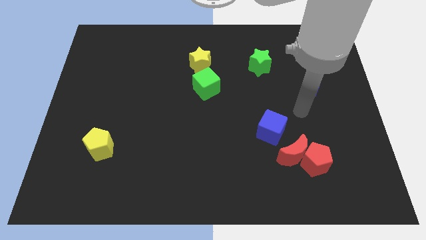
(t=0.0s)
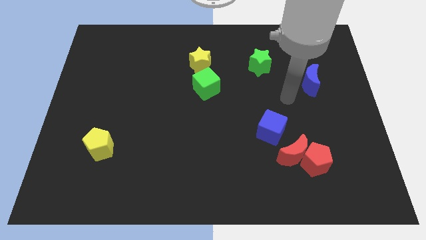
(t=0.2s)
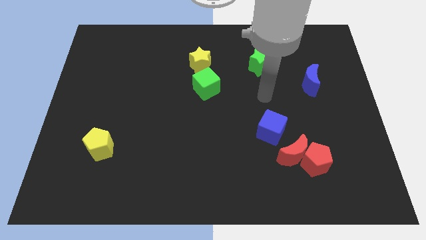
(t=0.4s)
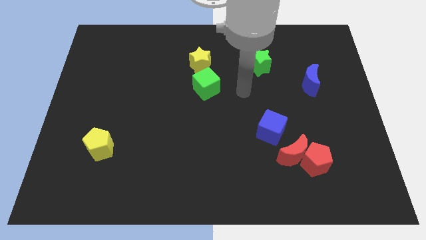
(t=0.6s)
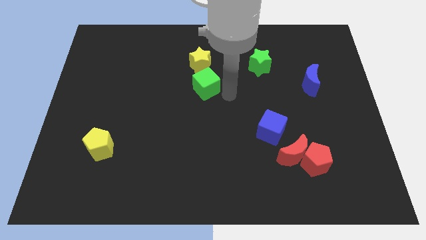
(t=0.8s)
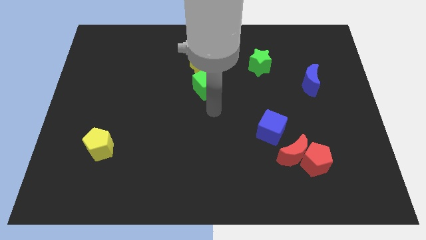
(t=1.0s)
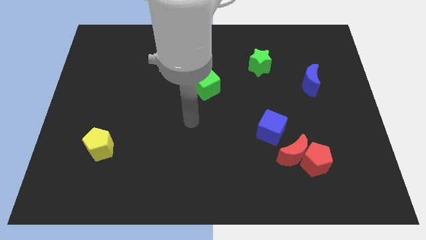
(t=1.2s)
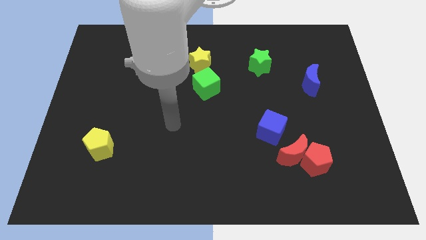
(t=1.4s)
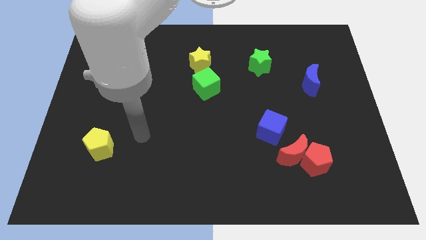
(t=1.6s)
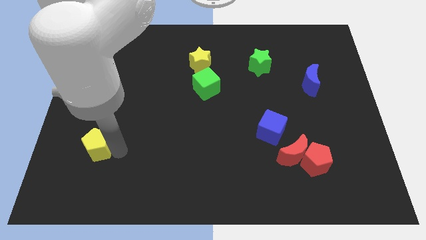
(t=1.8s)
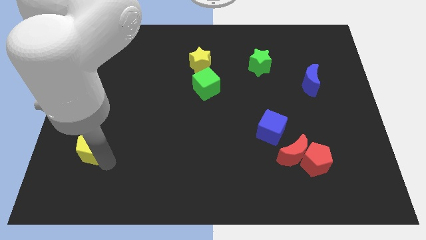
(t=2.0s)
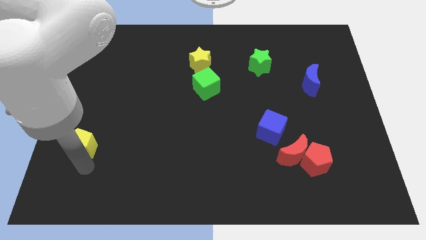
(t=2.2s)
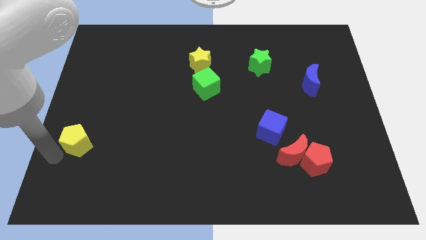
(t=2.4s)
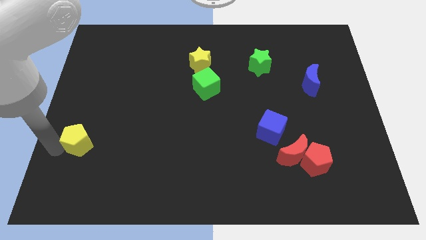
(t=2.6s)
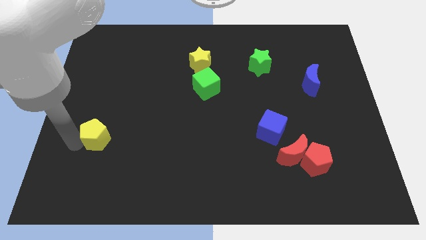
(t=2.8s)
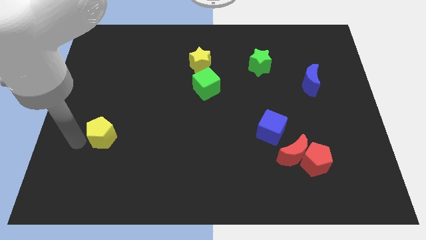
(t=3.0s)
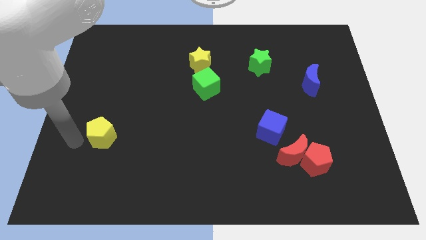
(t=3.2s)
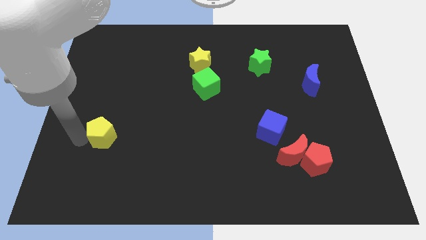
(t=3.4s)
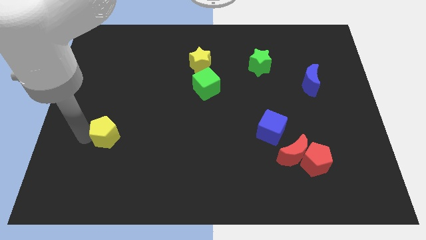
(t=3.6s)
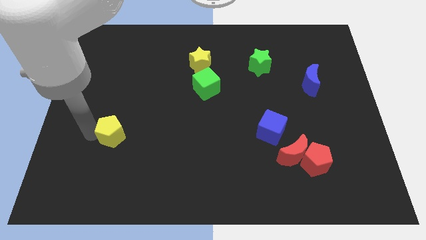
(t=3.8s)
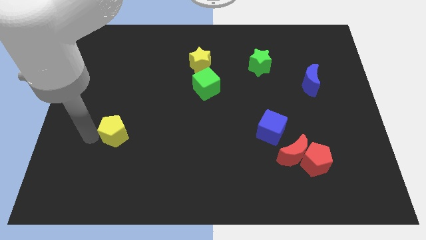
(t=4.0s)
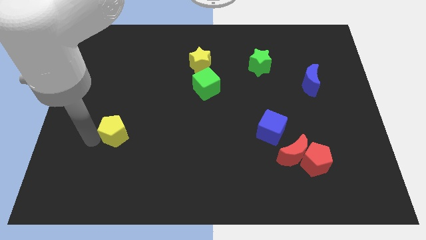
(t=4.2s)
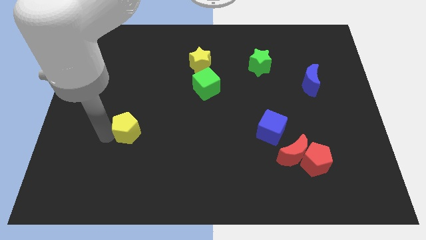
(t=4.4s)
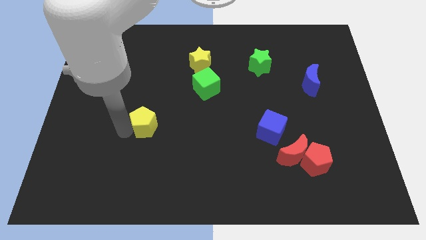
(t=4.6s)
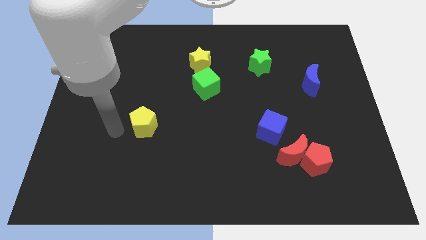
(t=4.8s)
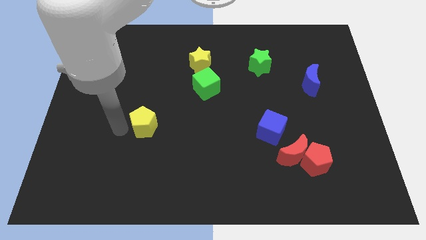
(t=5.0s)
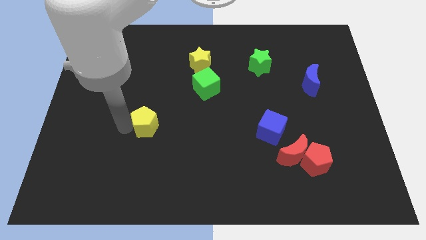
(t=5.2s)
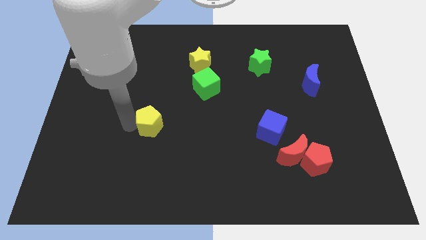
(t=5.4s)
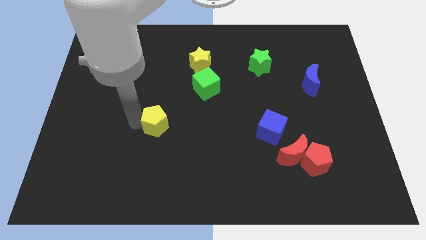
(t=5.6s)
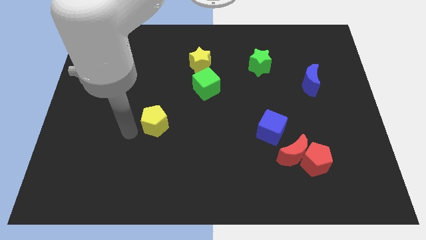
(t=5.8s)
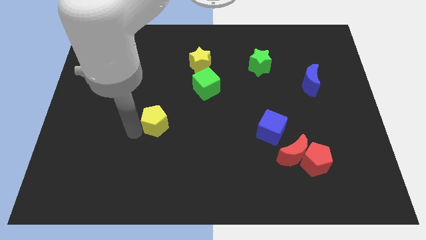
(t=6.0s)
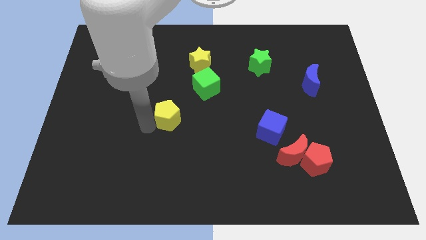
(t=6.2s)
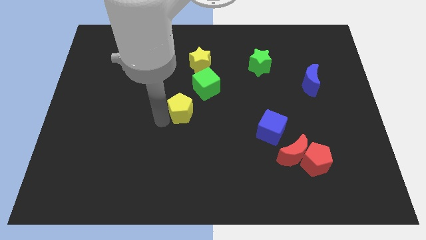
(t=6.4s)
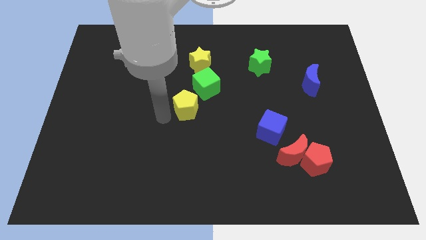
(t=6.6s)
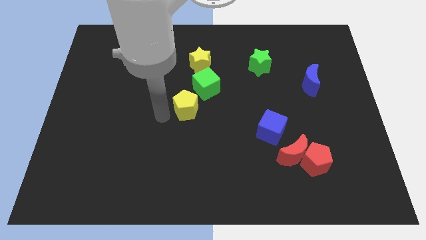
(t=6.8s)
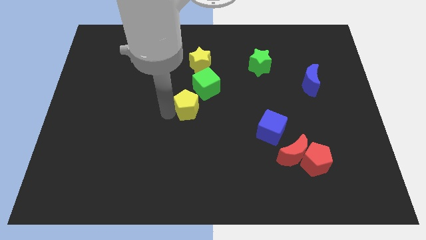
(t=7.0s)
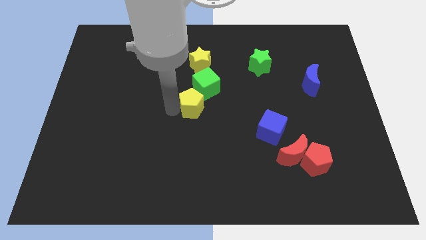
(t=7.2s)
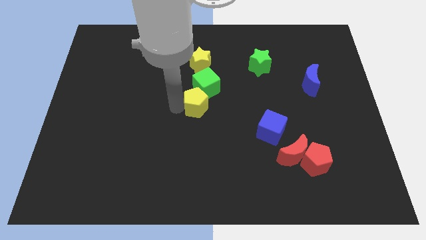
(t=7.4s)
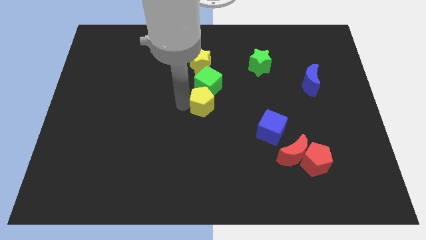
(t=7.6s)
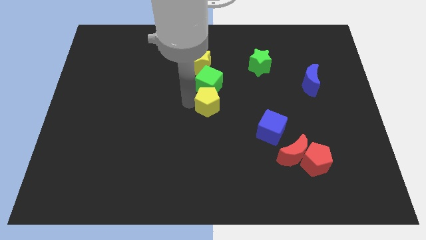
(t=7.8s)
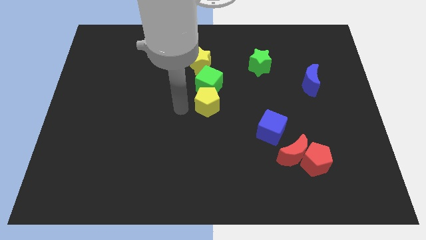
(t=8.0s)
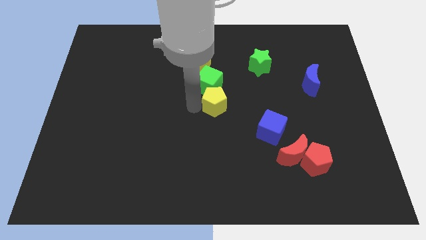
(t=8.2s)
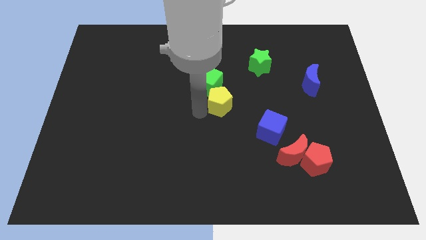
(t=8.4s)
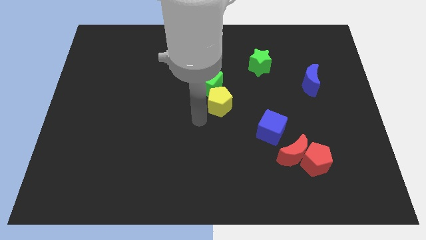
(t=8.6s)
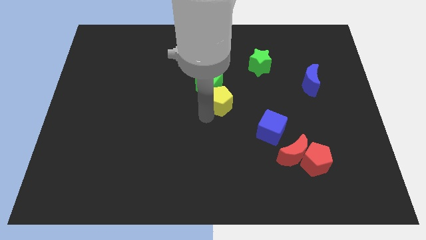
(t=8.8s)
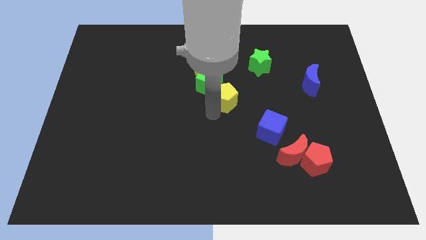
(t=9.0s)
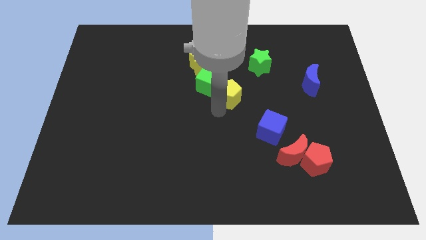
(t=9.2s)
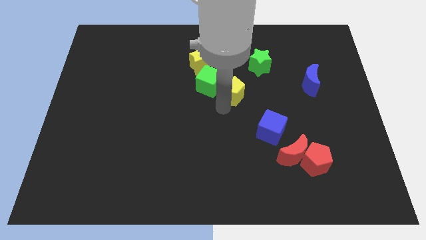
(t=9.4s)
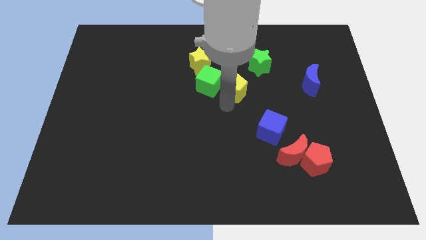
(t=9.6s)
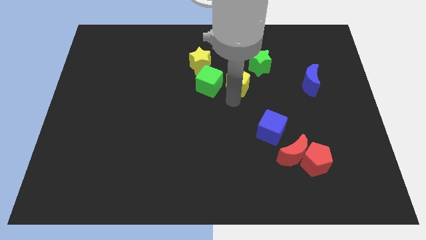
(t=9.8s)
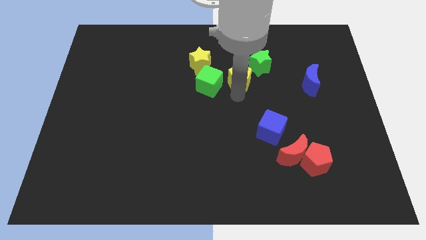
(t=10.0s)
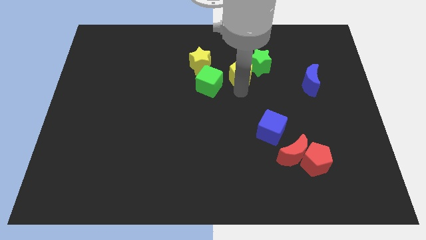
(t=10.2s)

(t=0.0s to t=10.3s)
slide the yellow pentagon close to the green star

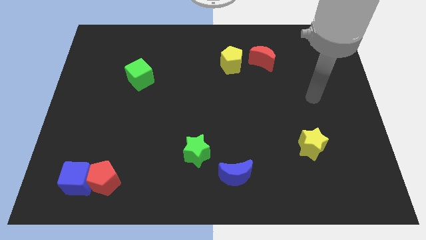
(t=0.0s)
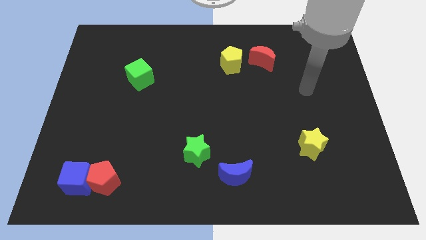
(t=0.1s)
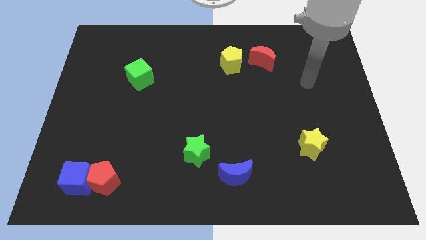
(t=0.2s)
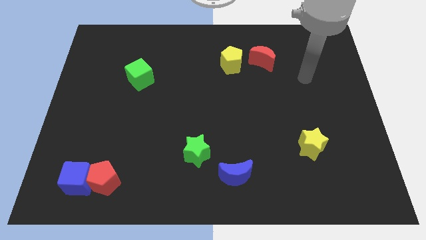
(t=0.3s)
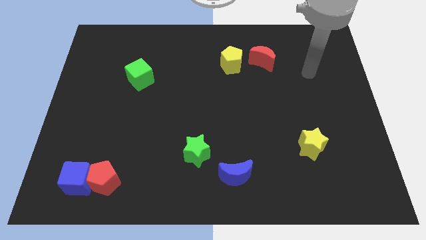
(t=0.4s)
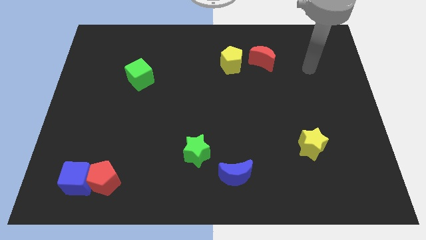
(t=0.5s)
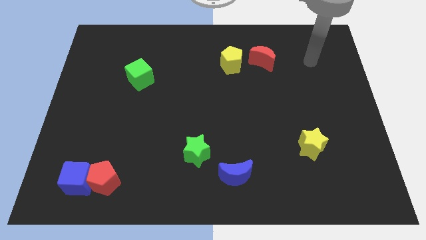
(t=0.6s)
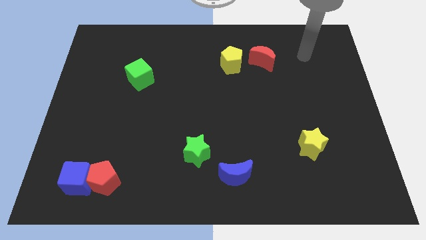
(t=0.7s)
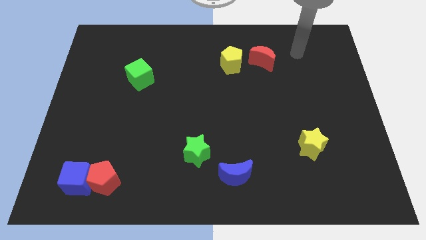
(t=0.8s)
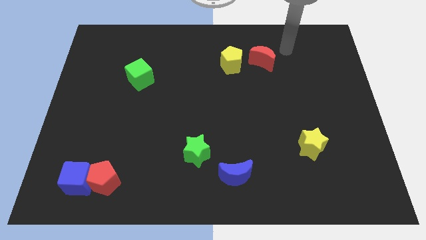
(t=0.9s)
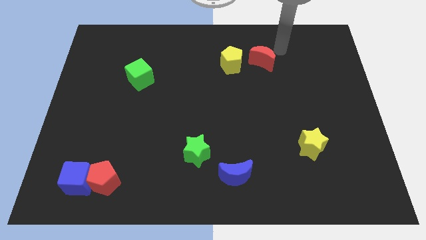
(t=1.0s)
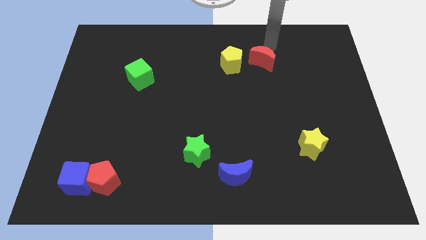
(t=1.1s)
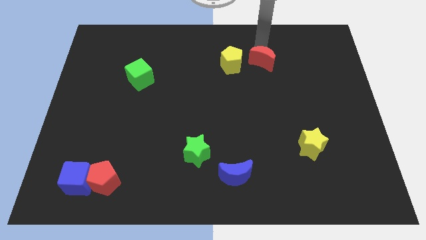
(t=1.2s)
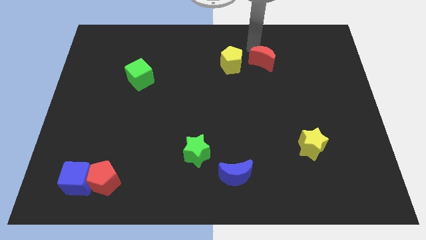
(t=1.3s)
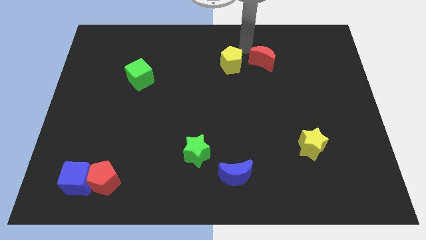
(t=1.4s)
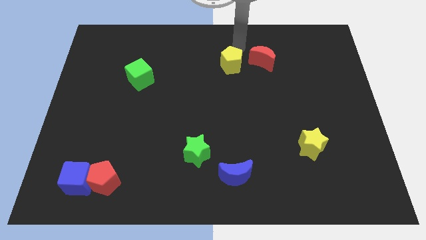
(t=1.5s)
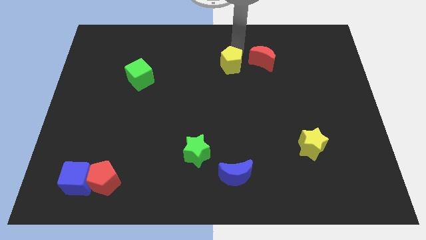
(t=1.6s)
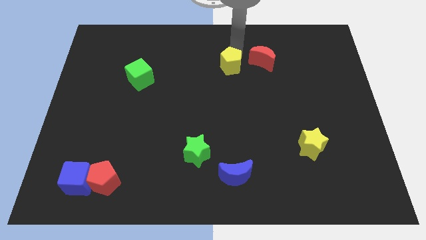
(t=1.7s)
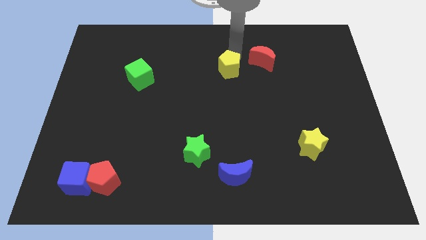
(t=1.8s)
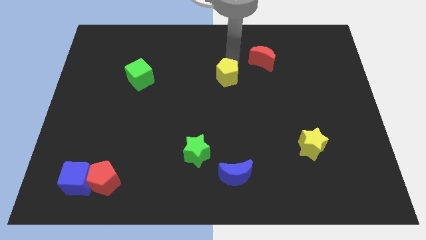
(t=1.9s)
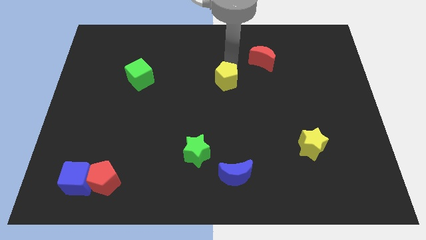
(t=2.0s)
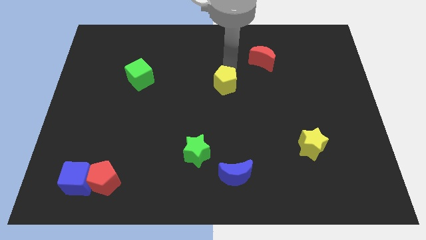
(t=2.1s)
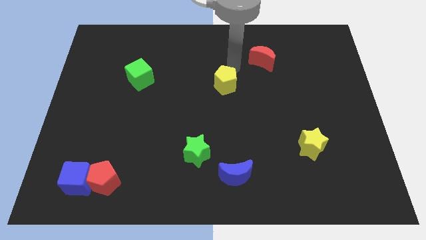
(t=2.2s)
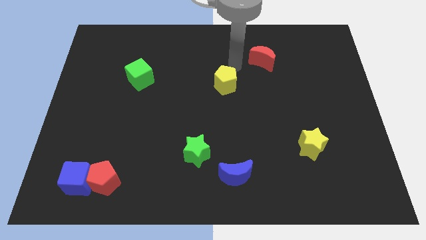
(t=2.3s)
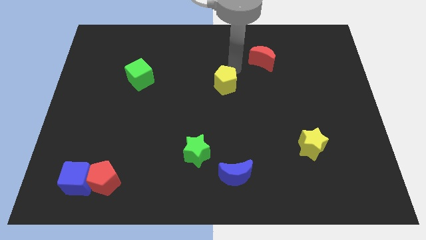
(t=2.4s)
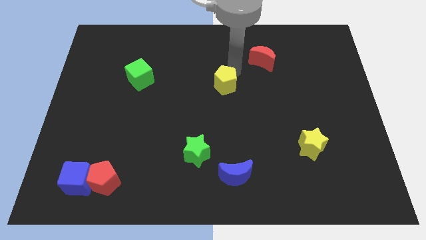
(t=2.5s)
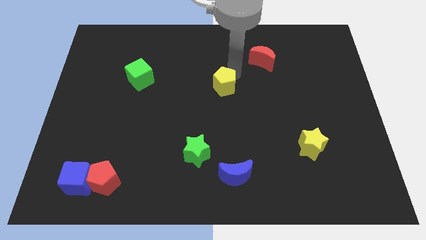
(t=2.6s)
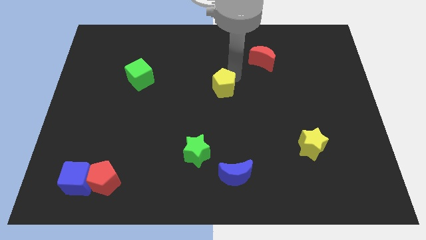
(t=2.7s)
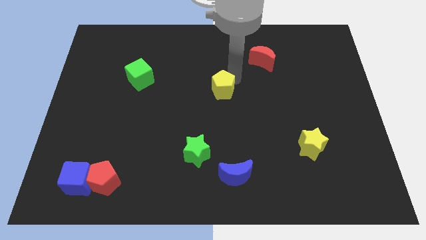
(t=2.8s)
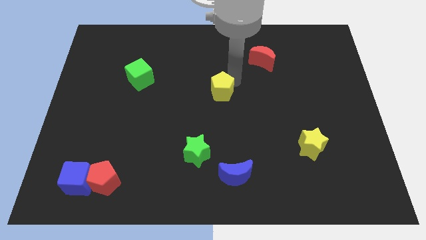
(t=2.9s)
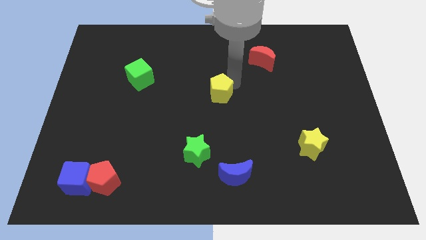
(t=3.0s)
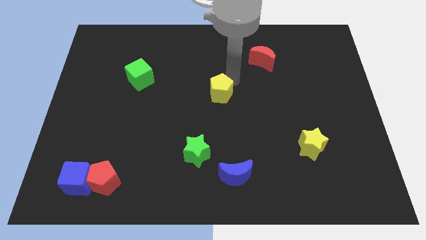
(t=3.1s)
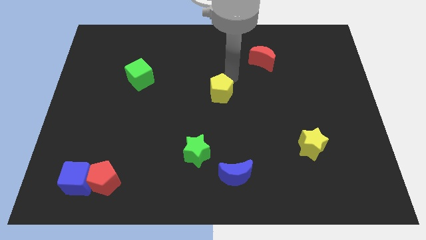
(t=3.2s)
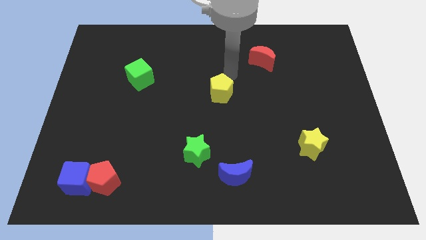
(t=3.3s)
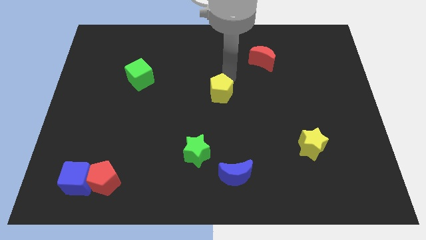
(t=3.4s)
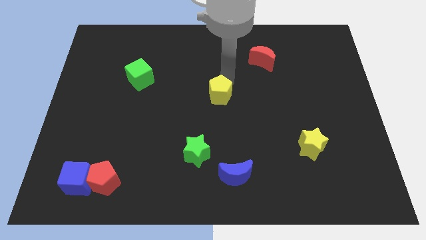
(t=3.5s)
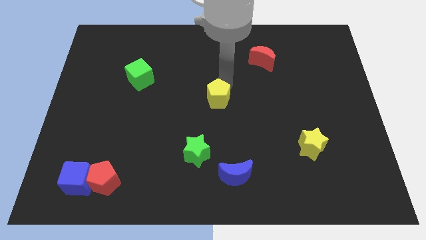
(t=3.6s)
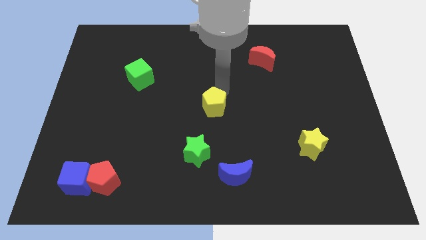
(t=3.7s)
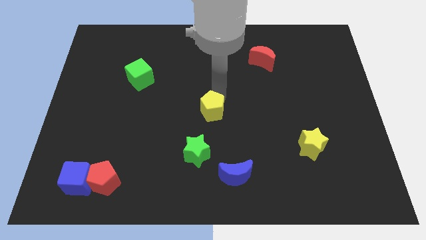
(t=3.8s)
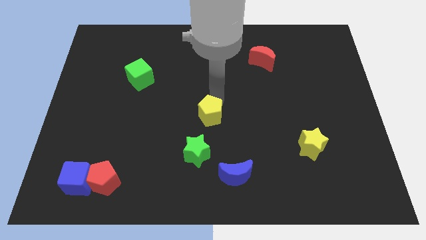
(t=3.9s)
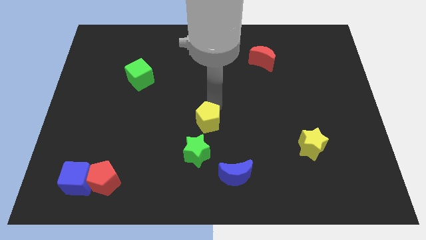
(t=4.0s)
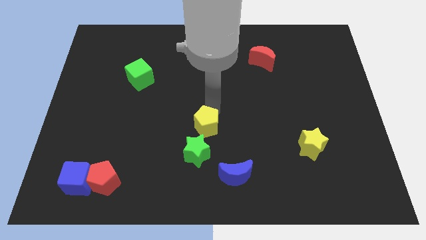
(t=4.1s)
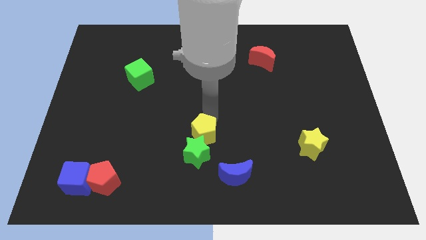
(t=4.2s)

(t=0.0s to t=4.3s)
put the yellow pentagon to the green star
